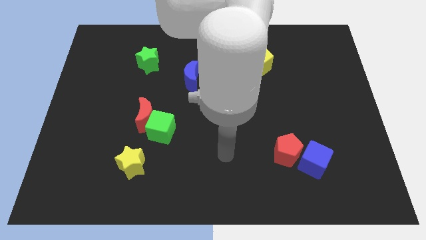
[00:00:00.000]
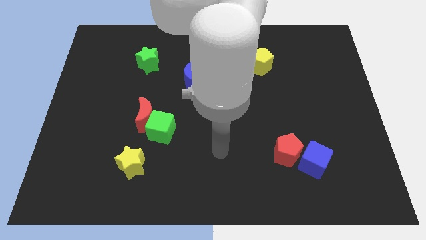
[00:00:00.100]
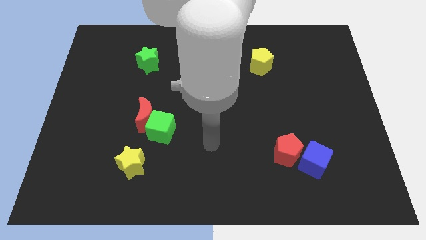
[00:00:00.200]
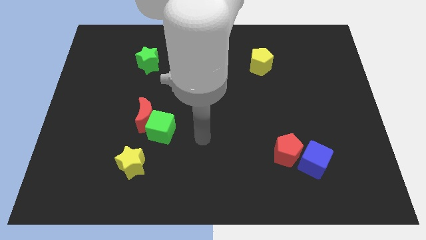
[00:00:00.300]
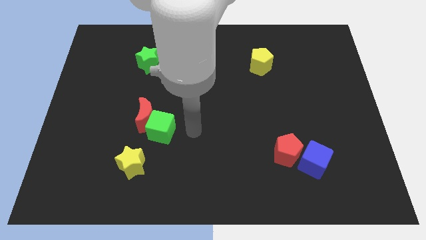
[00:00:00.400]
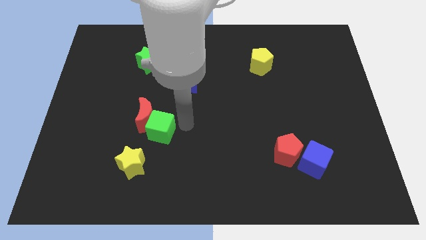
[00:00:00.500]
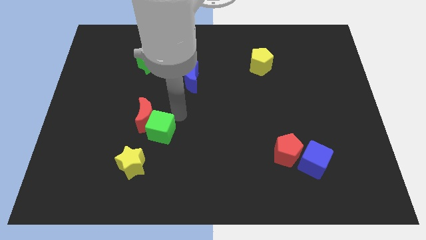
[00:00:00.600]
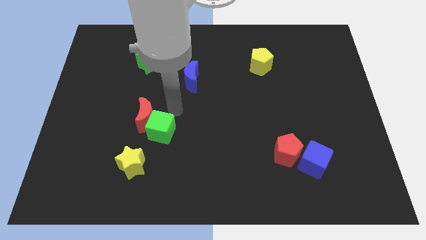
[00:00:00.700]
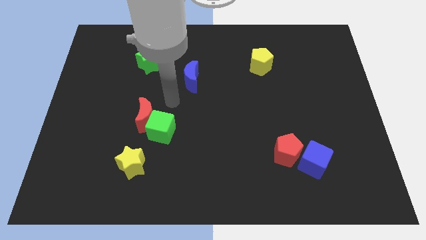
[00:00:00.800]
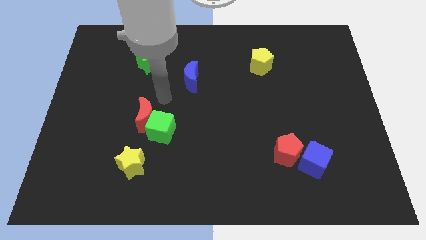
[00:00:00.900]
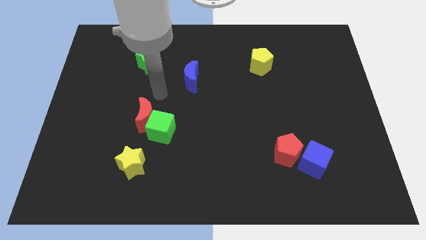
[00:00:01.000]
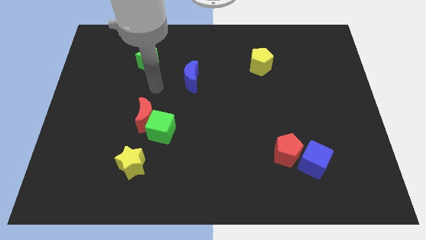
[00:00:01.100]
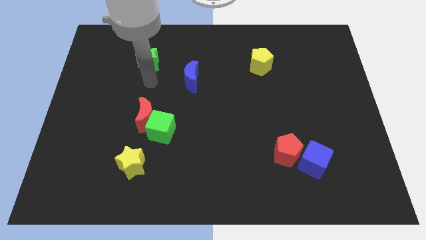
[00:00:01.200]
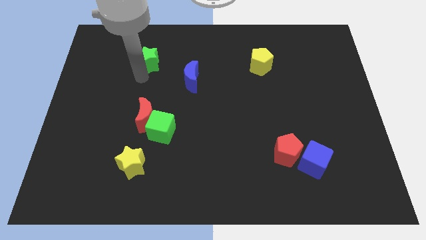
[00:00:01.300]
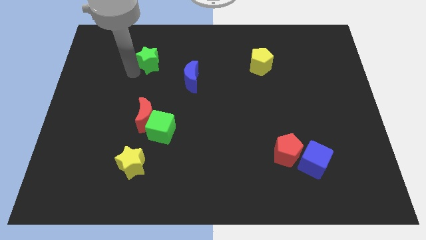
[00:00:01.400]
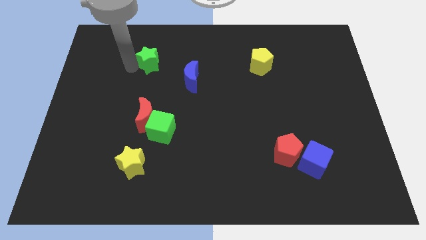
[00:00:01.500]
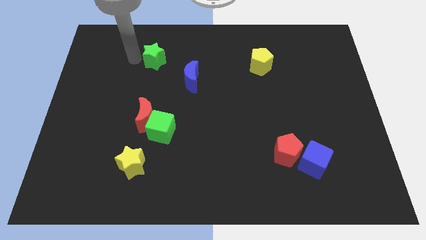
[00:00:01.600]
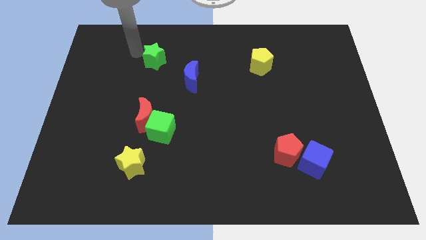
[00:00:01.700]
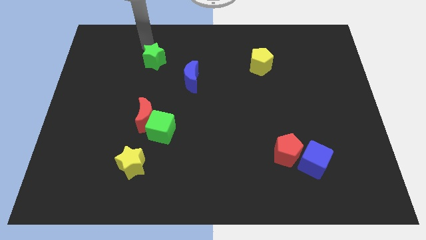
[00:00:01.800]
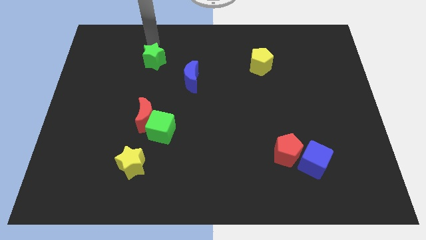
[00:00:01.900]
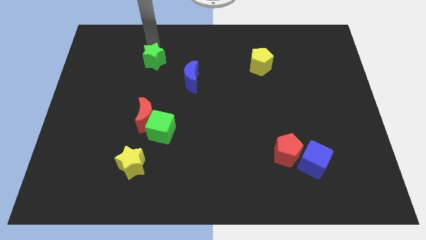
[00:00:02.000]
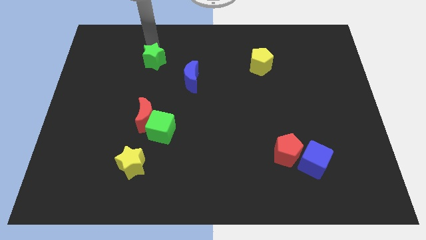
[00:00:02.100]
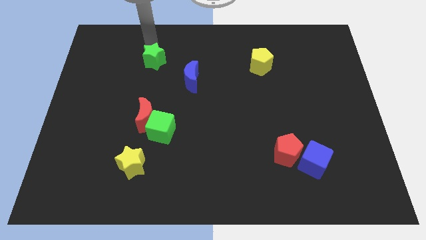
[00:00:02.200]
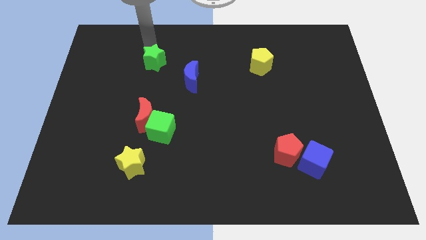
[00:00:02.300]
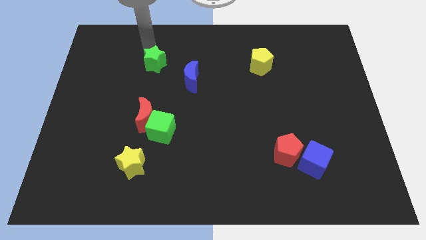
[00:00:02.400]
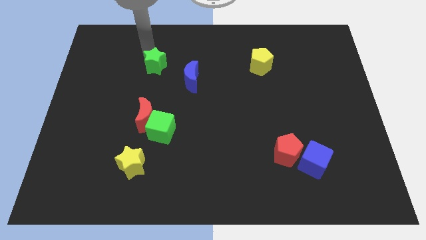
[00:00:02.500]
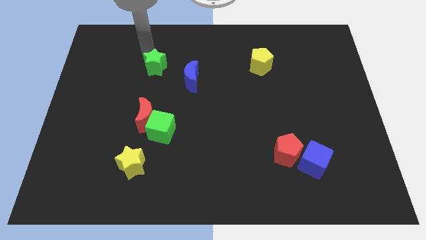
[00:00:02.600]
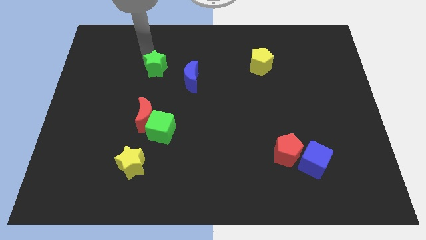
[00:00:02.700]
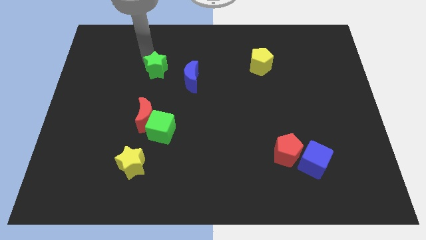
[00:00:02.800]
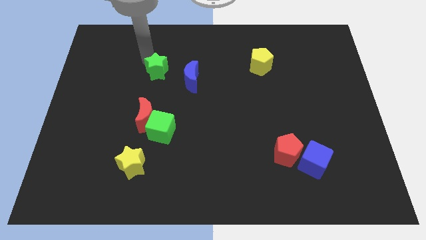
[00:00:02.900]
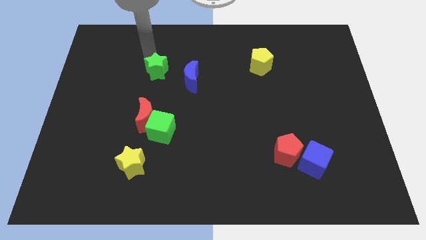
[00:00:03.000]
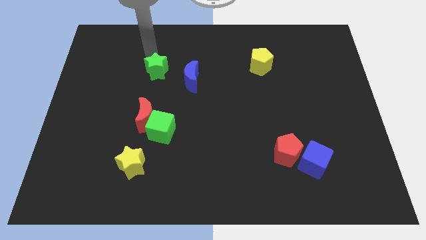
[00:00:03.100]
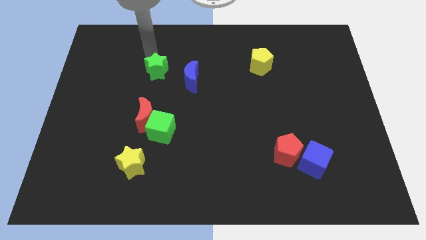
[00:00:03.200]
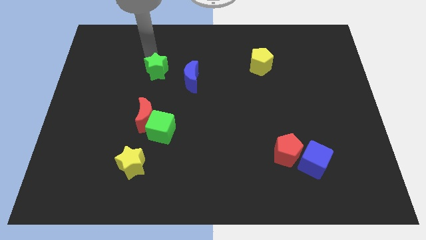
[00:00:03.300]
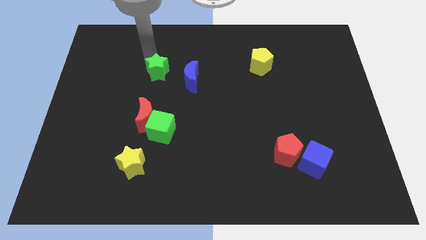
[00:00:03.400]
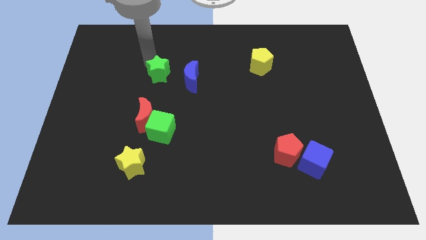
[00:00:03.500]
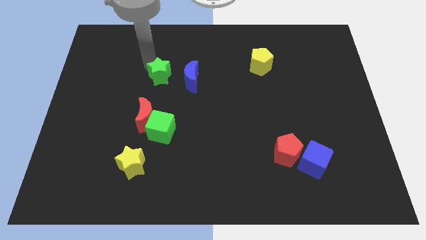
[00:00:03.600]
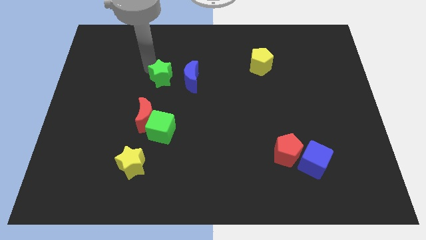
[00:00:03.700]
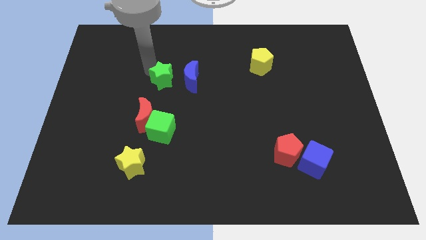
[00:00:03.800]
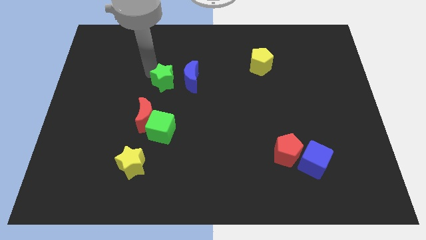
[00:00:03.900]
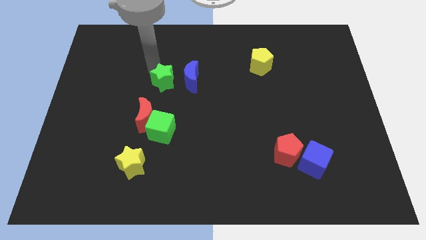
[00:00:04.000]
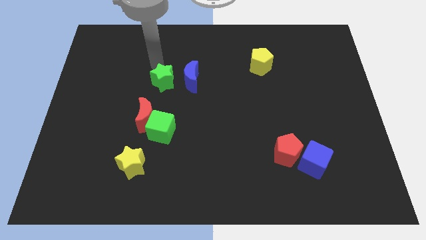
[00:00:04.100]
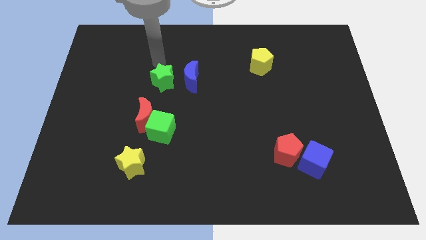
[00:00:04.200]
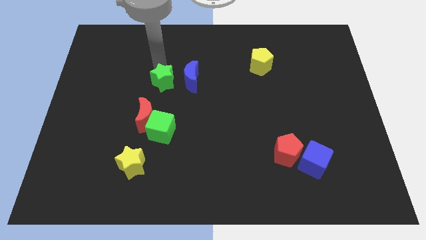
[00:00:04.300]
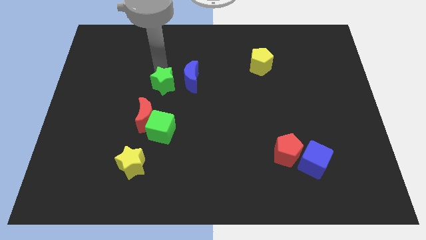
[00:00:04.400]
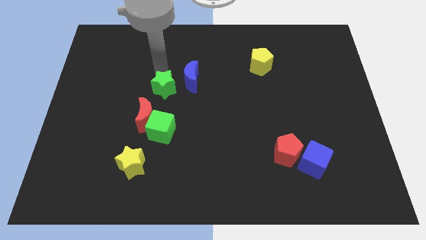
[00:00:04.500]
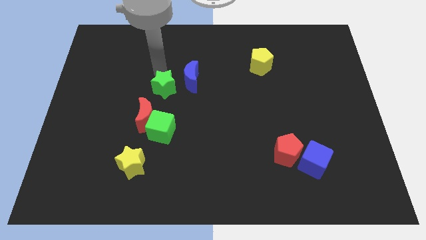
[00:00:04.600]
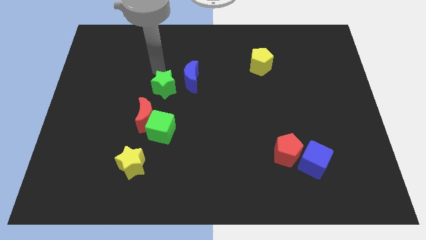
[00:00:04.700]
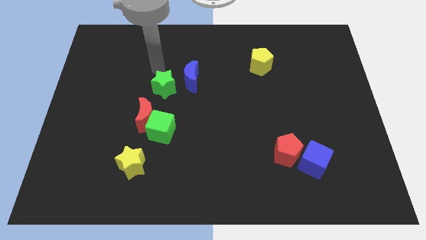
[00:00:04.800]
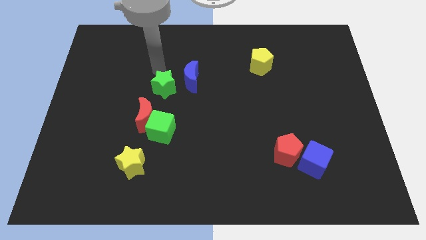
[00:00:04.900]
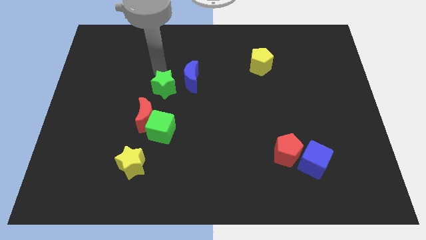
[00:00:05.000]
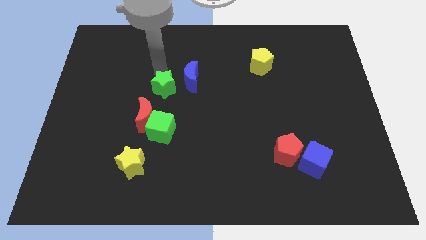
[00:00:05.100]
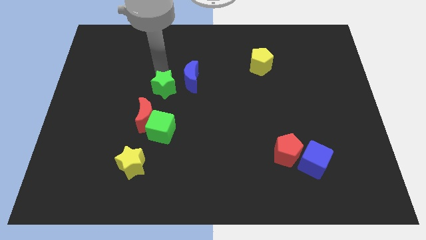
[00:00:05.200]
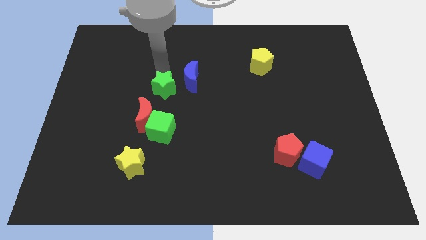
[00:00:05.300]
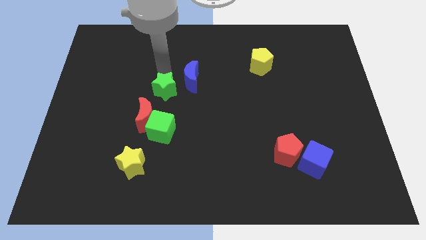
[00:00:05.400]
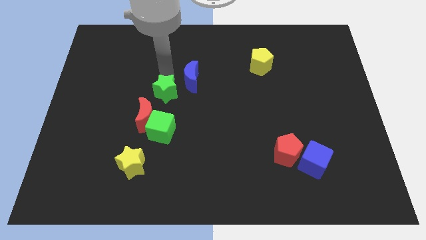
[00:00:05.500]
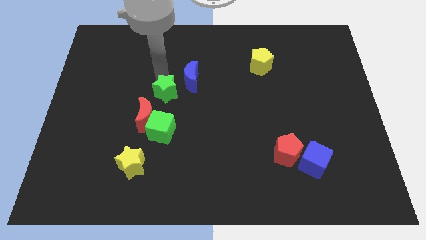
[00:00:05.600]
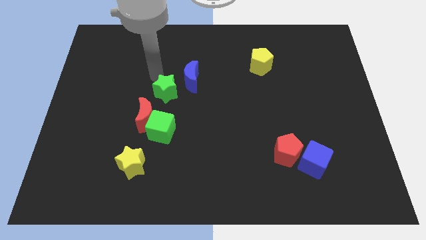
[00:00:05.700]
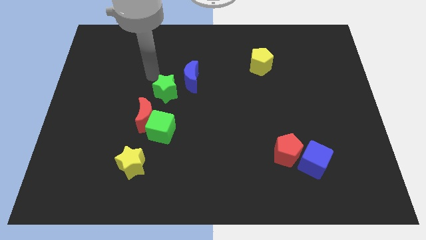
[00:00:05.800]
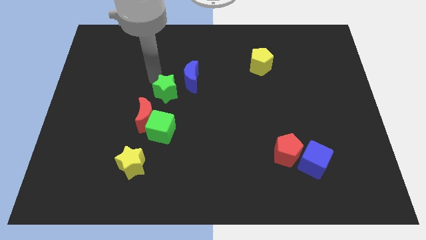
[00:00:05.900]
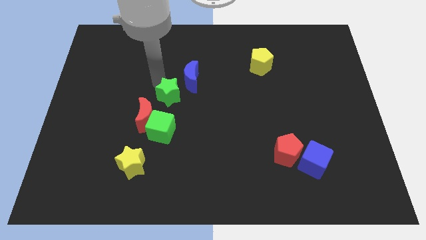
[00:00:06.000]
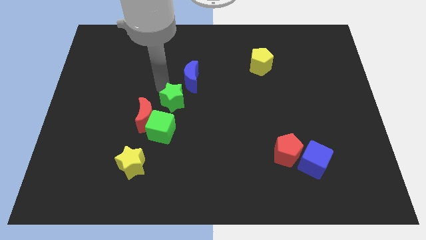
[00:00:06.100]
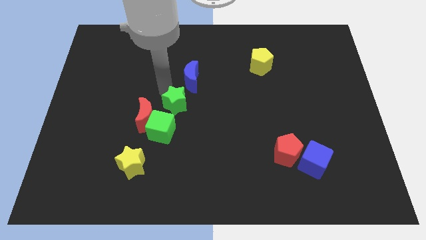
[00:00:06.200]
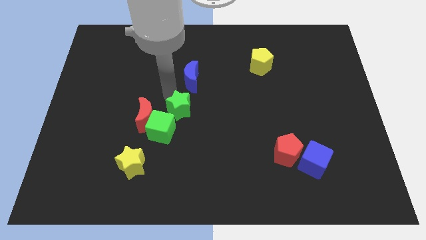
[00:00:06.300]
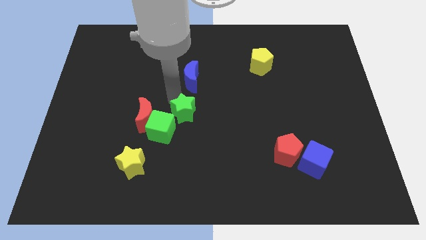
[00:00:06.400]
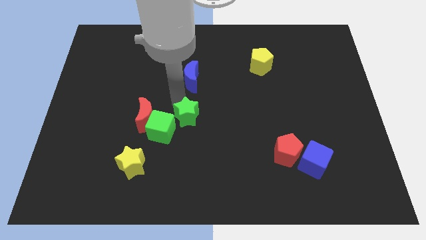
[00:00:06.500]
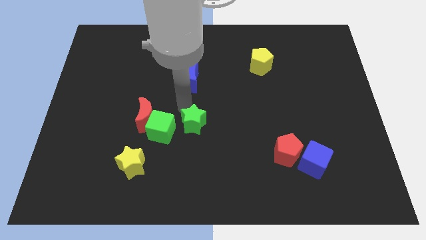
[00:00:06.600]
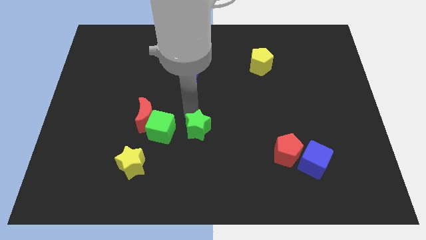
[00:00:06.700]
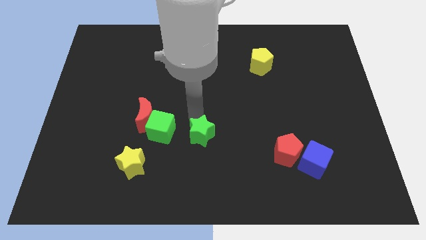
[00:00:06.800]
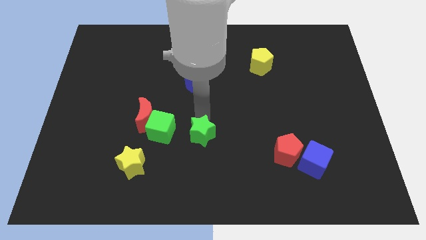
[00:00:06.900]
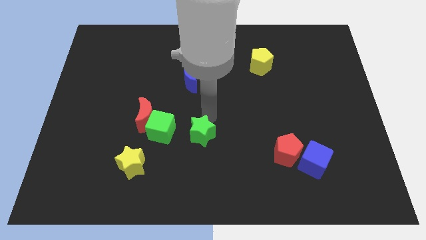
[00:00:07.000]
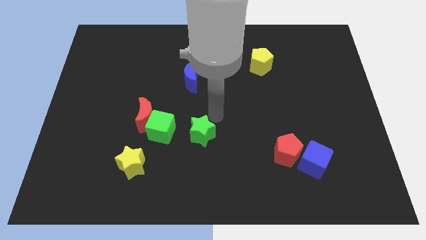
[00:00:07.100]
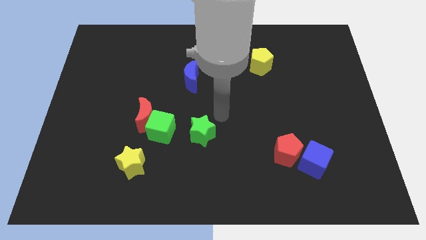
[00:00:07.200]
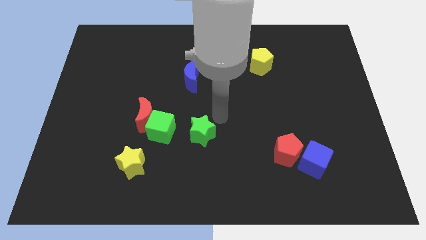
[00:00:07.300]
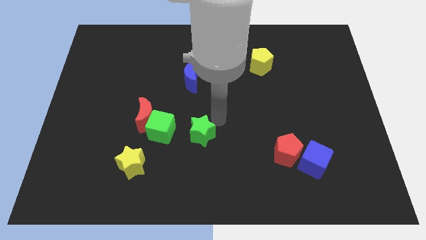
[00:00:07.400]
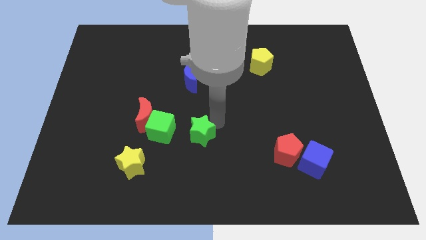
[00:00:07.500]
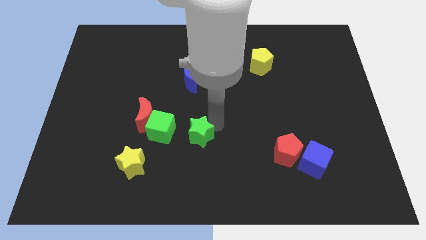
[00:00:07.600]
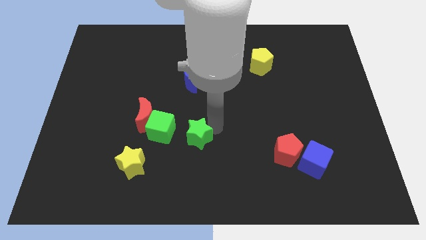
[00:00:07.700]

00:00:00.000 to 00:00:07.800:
slide the green star to the bottom right side of the green cube
